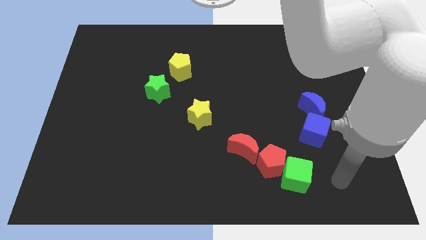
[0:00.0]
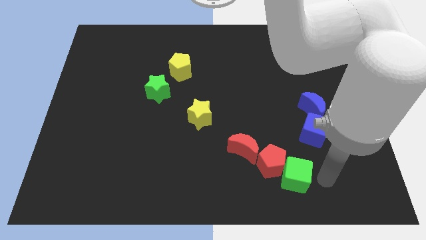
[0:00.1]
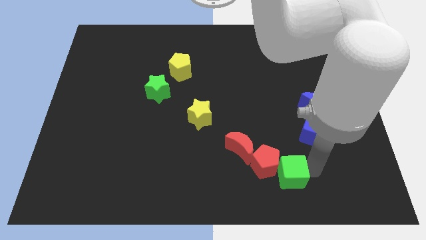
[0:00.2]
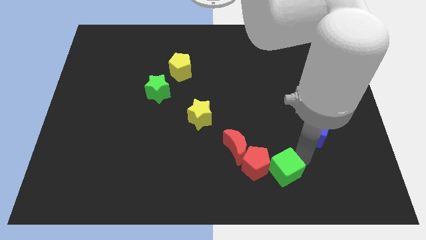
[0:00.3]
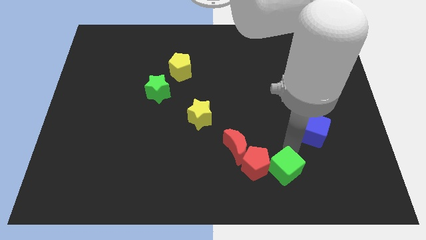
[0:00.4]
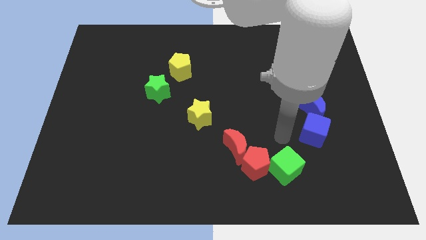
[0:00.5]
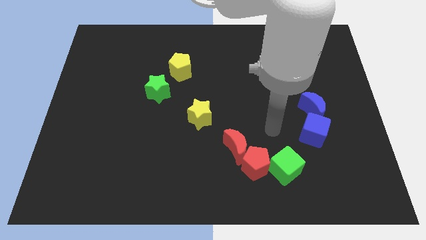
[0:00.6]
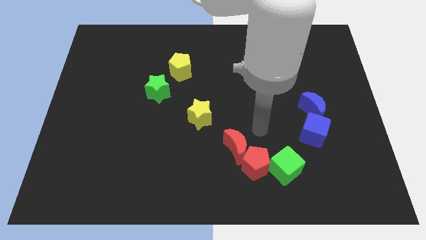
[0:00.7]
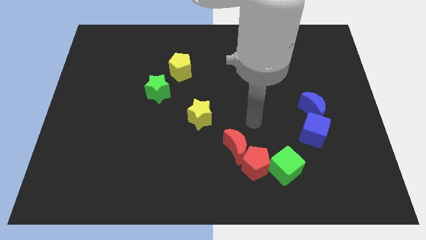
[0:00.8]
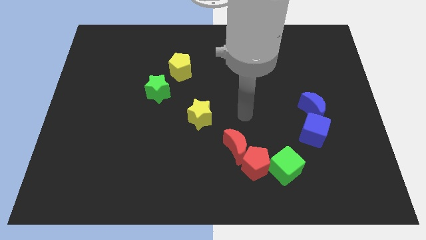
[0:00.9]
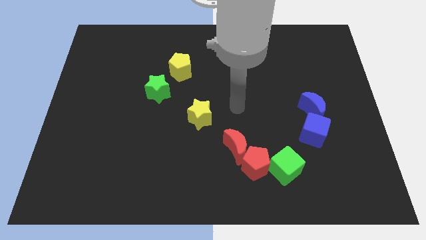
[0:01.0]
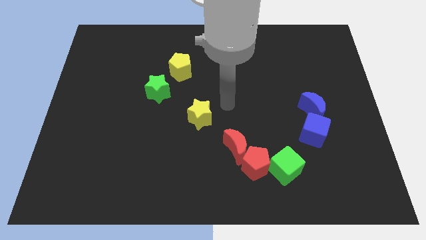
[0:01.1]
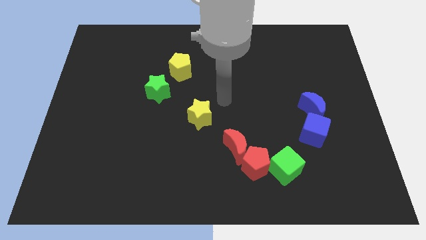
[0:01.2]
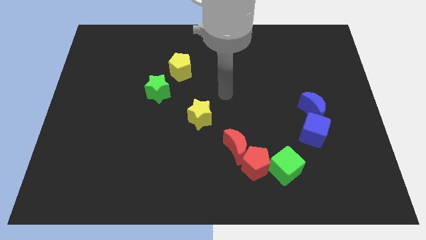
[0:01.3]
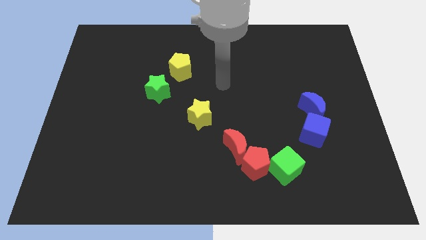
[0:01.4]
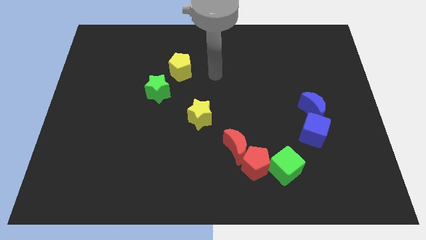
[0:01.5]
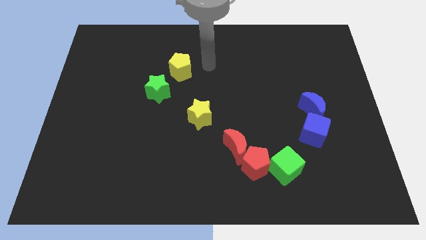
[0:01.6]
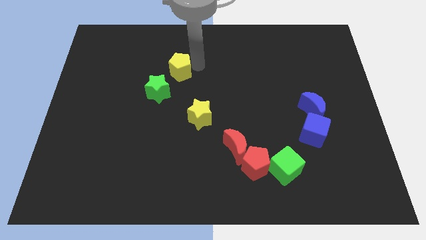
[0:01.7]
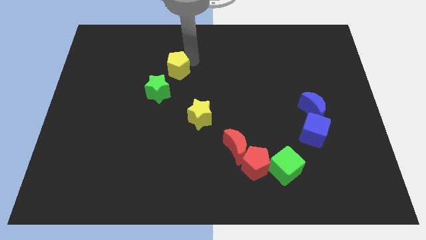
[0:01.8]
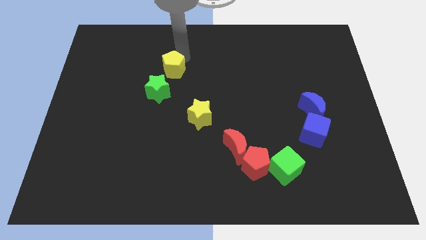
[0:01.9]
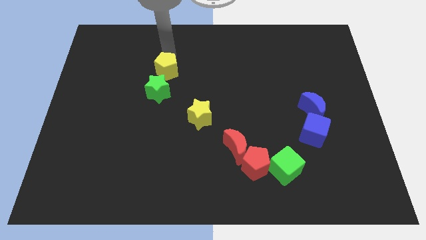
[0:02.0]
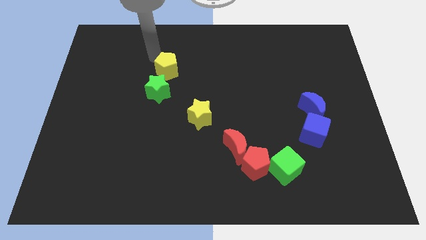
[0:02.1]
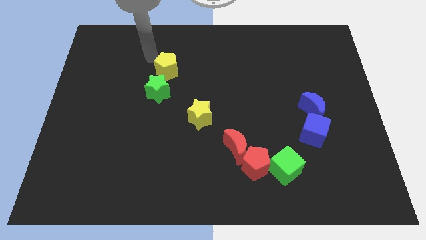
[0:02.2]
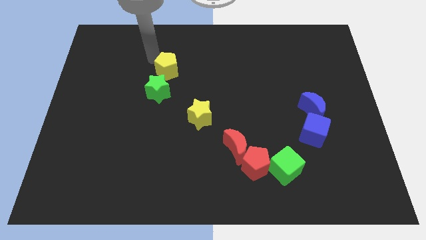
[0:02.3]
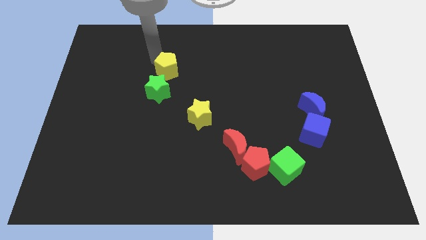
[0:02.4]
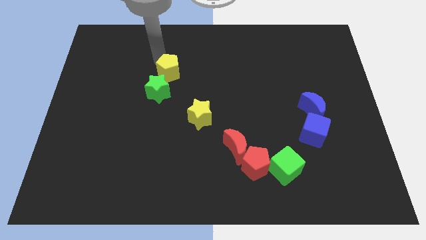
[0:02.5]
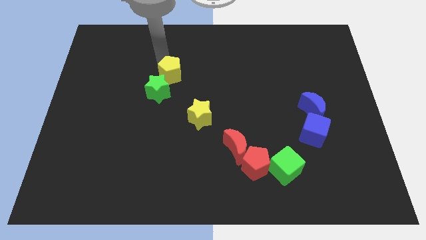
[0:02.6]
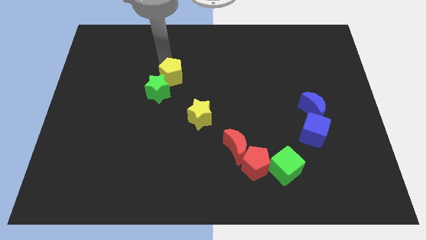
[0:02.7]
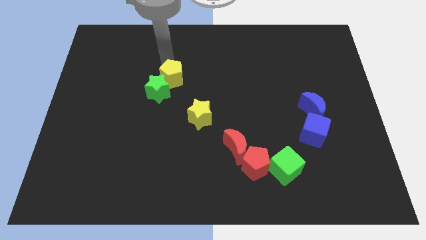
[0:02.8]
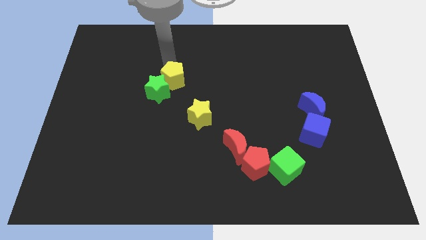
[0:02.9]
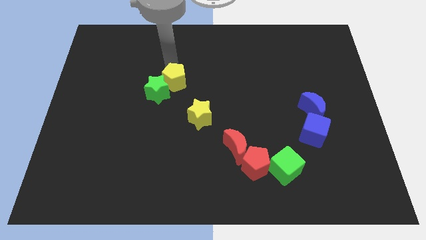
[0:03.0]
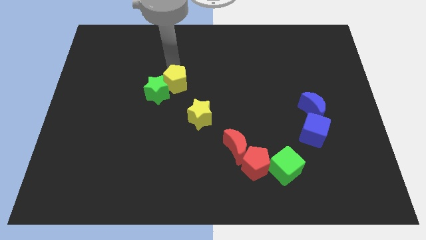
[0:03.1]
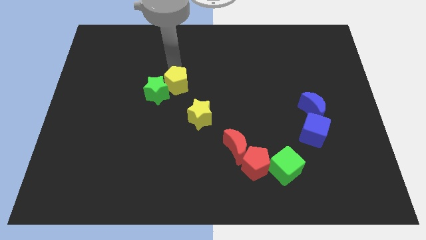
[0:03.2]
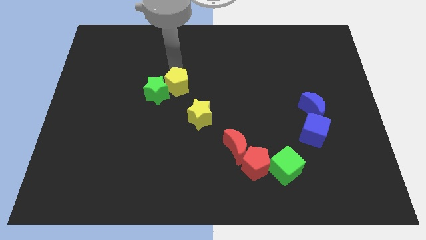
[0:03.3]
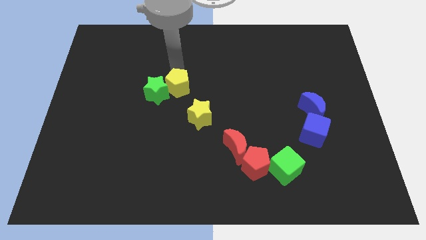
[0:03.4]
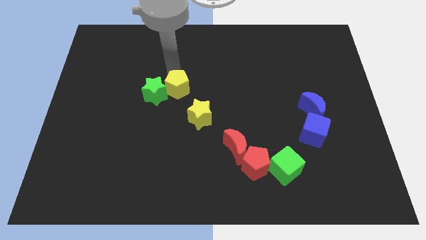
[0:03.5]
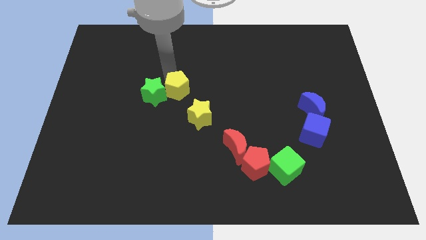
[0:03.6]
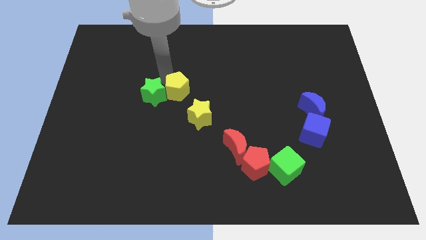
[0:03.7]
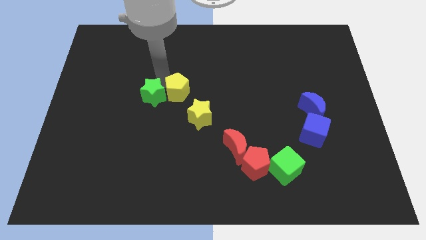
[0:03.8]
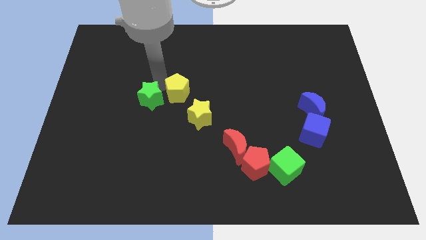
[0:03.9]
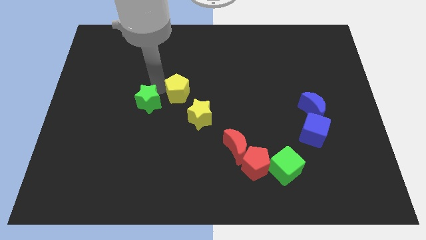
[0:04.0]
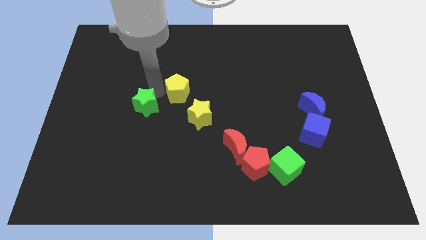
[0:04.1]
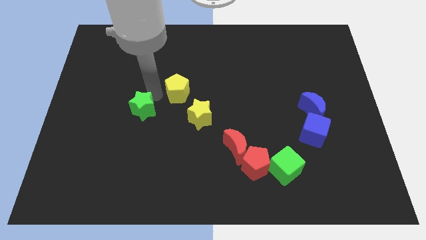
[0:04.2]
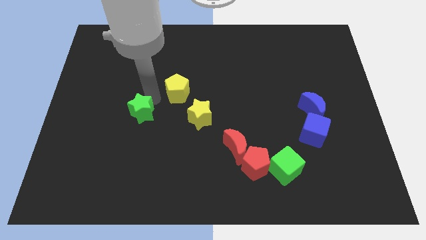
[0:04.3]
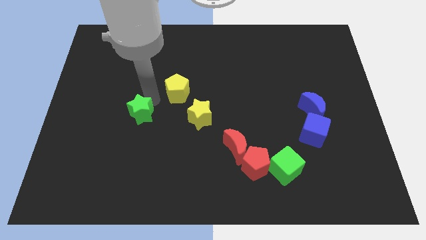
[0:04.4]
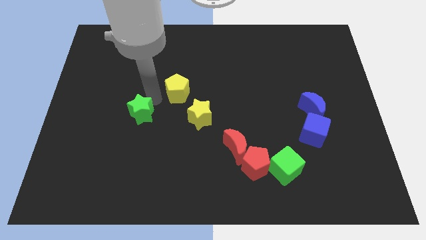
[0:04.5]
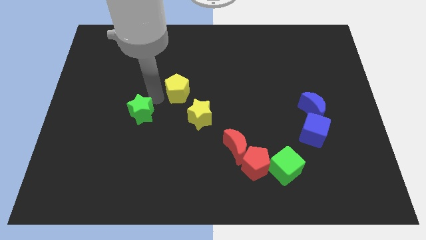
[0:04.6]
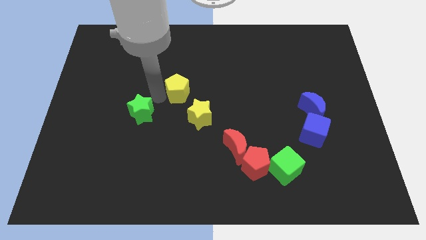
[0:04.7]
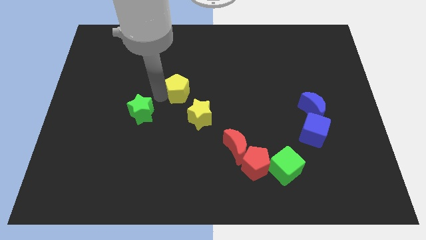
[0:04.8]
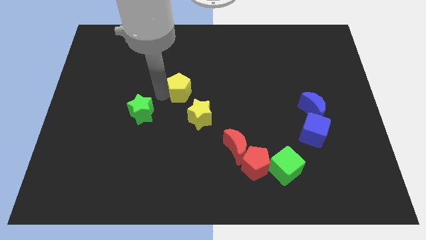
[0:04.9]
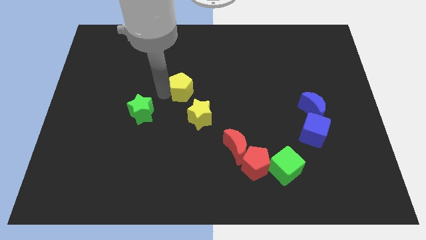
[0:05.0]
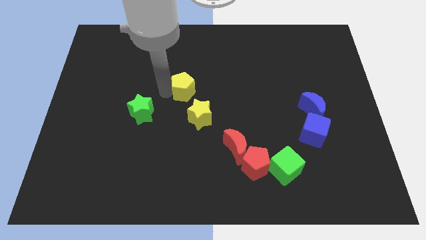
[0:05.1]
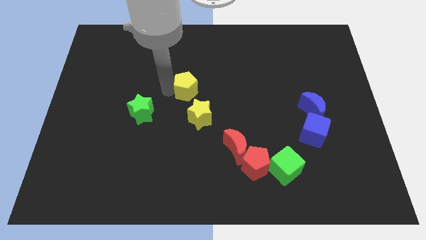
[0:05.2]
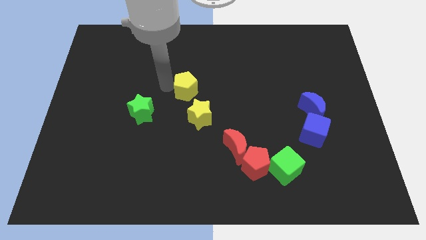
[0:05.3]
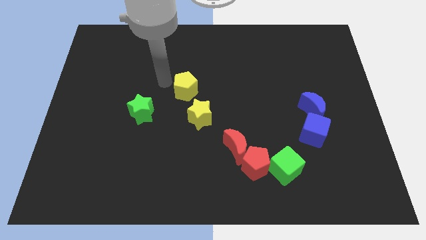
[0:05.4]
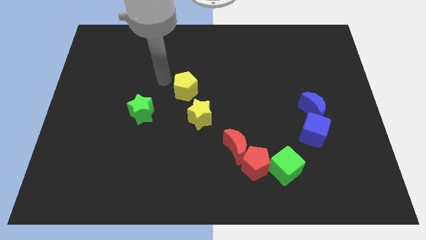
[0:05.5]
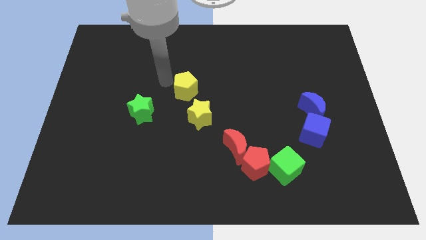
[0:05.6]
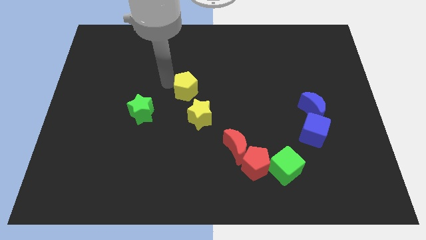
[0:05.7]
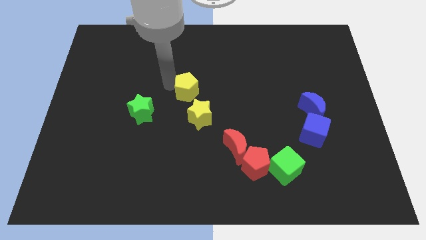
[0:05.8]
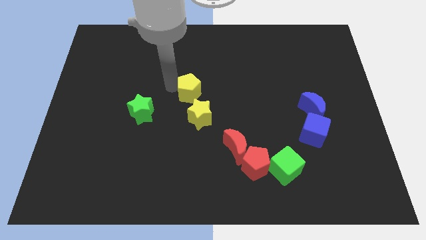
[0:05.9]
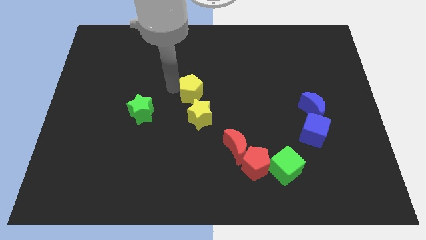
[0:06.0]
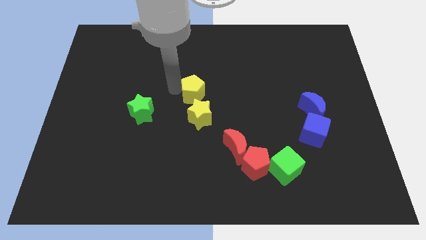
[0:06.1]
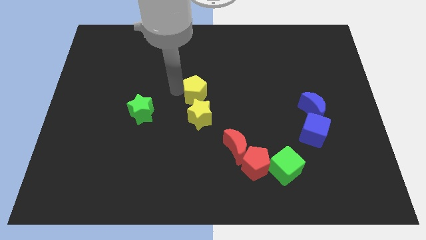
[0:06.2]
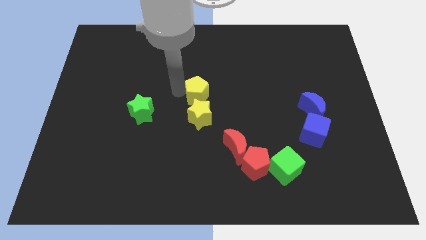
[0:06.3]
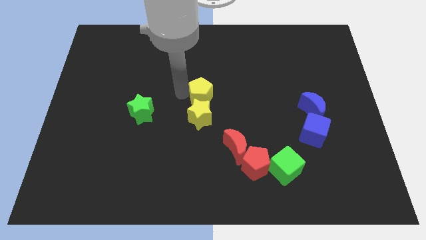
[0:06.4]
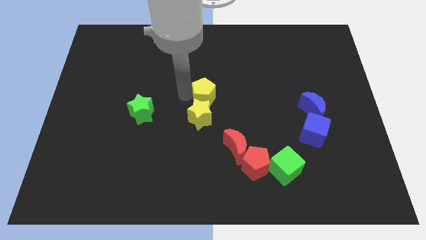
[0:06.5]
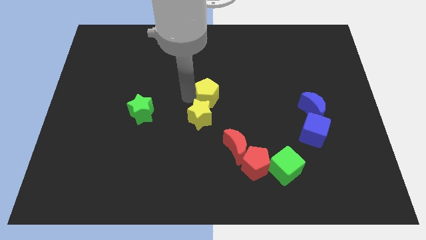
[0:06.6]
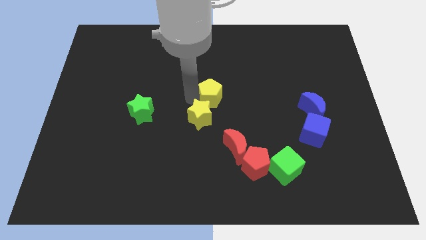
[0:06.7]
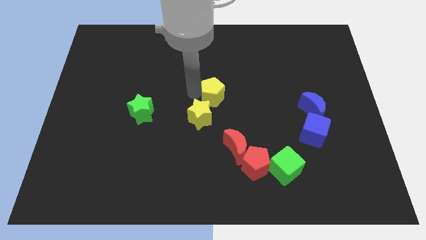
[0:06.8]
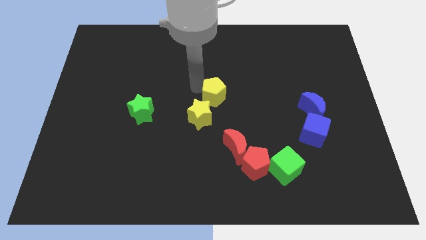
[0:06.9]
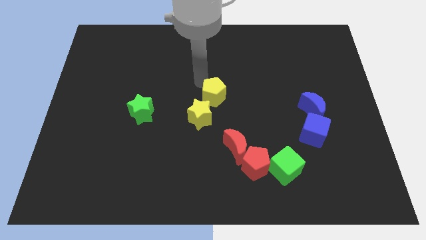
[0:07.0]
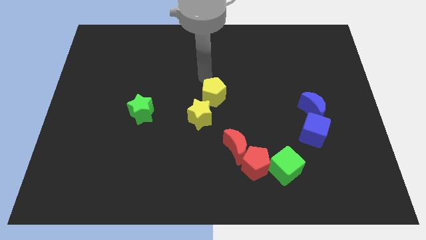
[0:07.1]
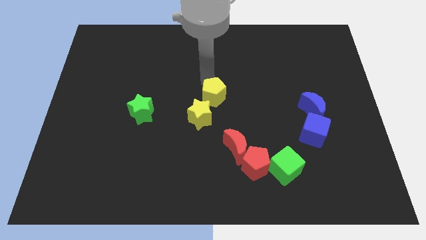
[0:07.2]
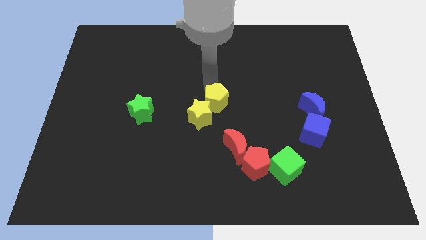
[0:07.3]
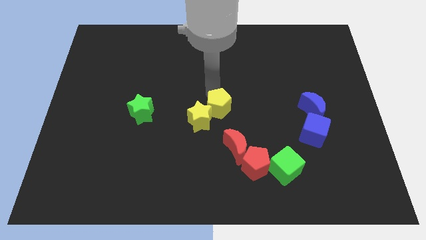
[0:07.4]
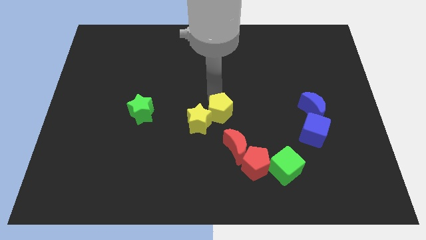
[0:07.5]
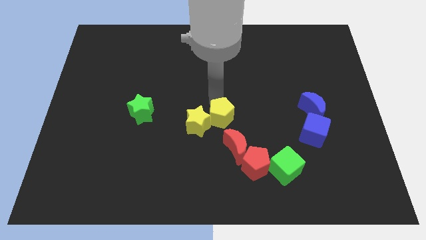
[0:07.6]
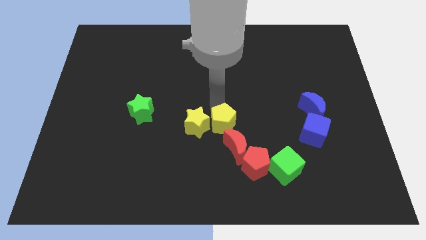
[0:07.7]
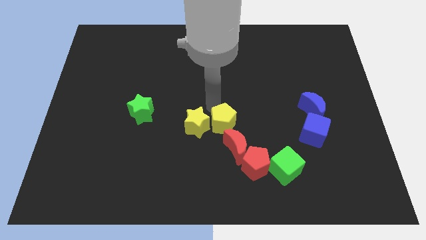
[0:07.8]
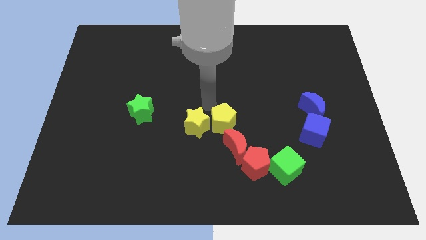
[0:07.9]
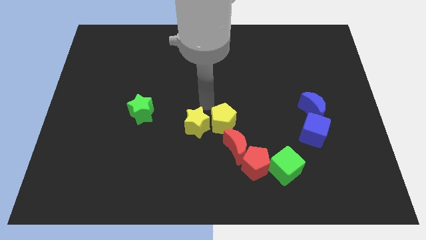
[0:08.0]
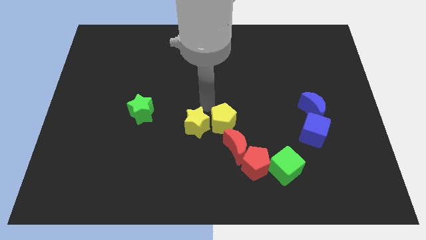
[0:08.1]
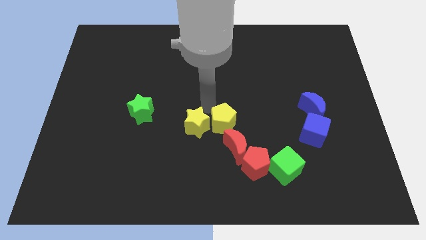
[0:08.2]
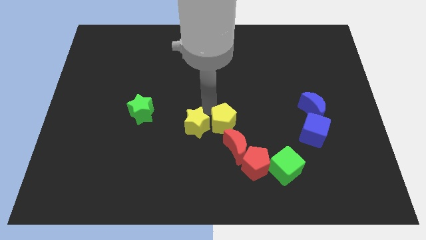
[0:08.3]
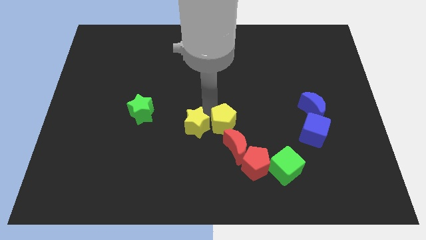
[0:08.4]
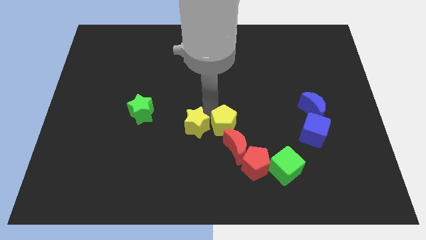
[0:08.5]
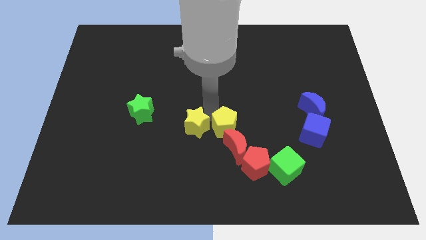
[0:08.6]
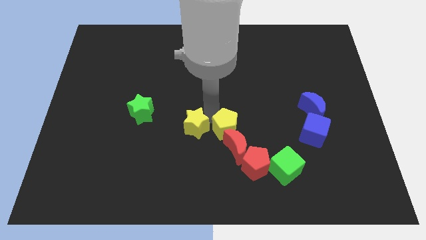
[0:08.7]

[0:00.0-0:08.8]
push the yellow pentagon close to the red moon
